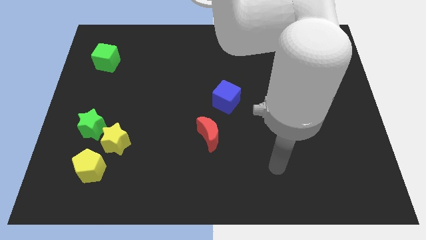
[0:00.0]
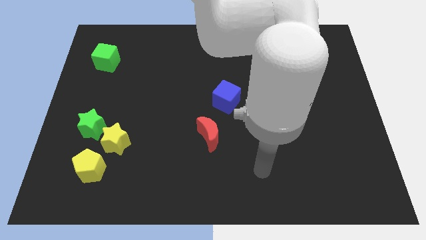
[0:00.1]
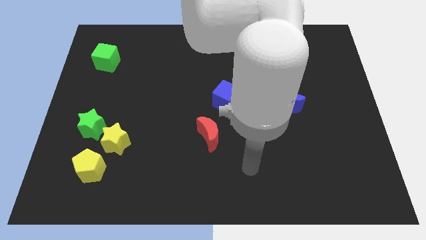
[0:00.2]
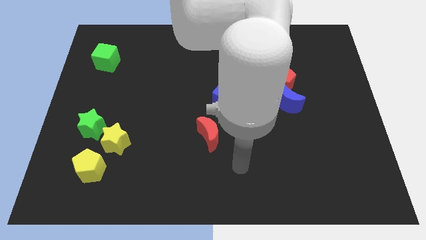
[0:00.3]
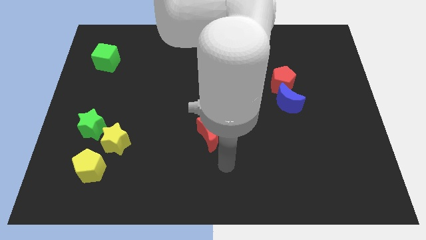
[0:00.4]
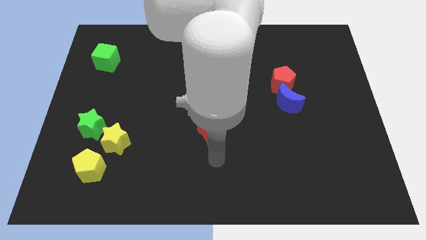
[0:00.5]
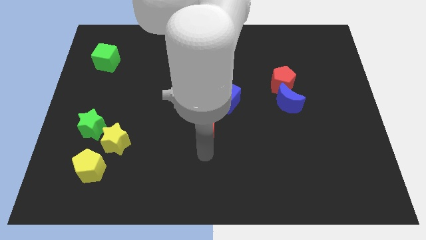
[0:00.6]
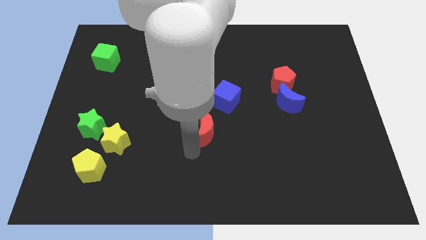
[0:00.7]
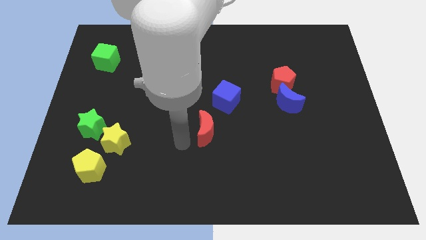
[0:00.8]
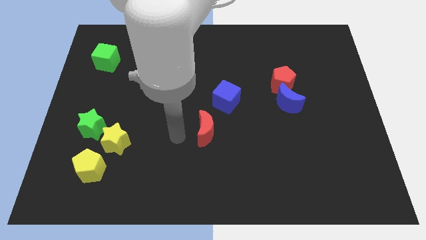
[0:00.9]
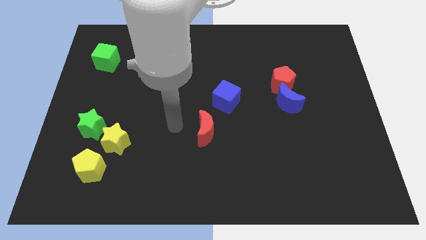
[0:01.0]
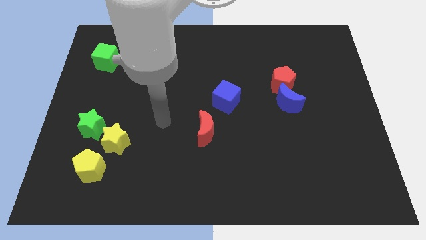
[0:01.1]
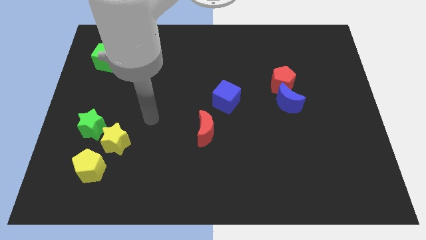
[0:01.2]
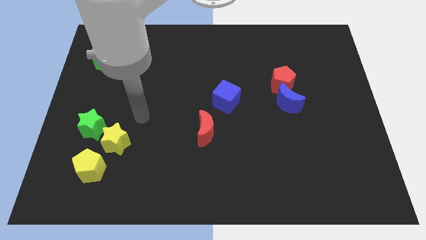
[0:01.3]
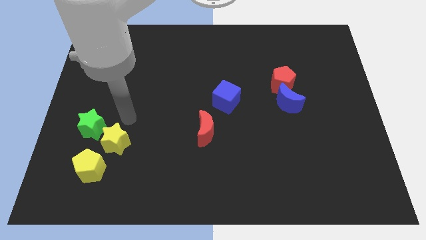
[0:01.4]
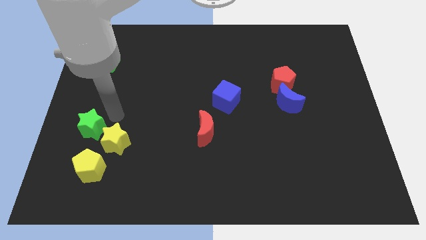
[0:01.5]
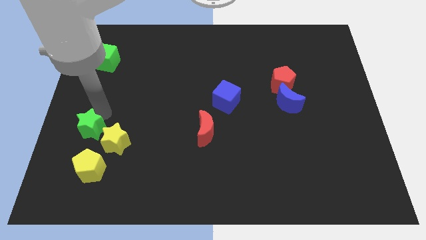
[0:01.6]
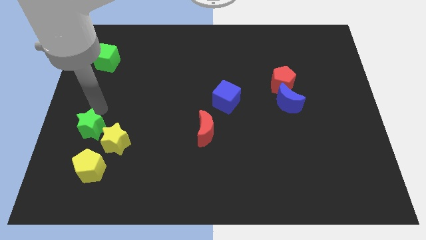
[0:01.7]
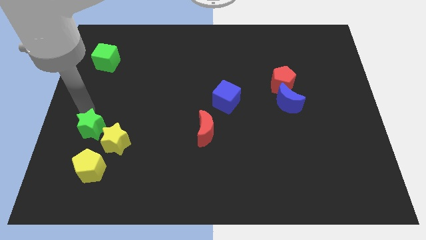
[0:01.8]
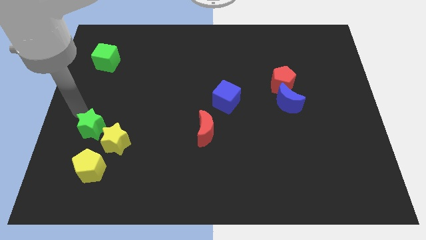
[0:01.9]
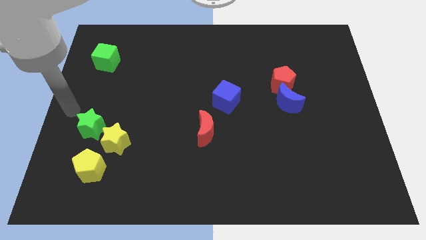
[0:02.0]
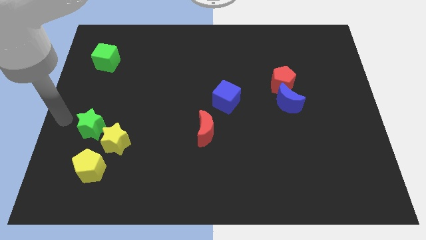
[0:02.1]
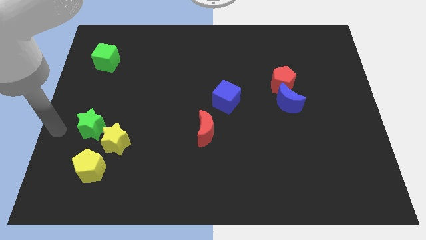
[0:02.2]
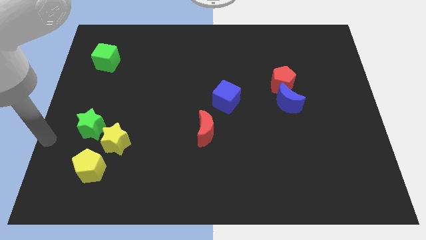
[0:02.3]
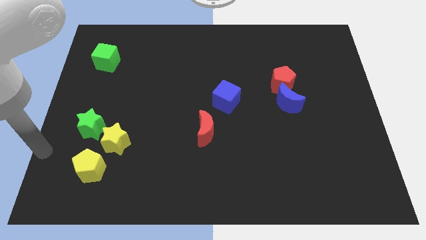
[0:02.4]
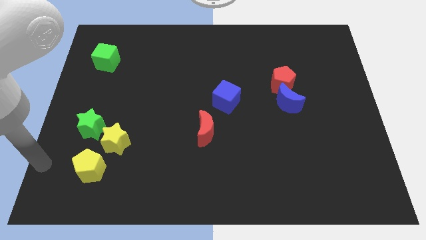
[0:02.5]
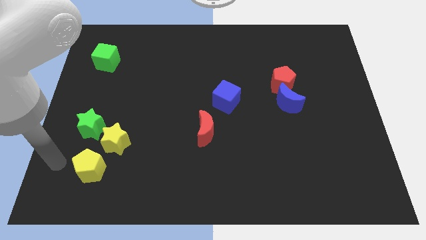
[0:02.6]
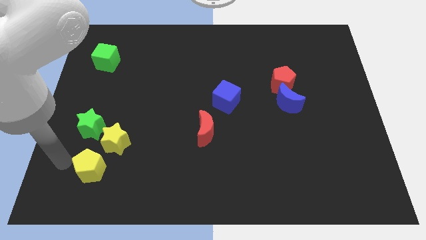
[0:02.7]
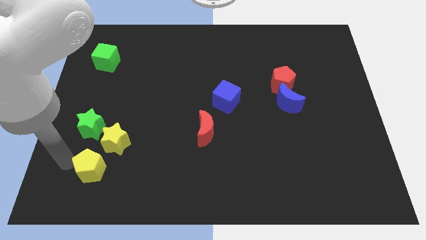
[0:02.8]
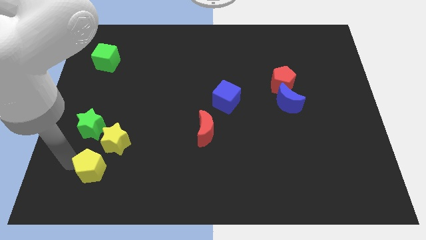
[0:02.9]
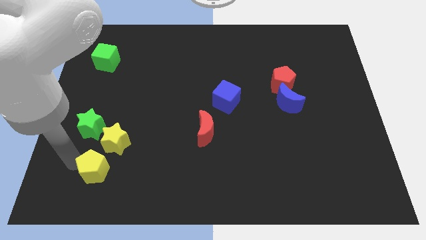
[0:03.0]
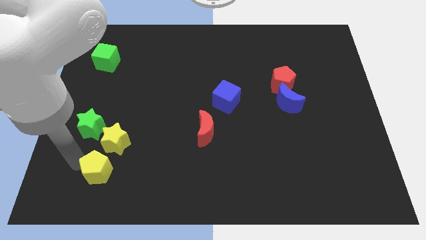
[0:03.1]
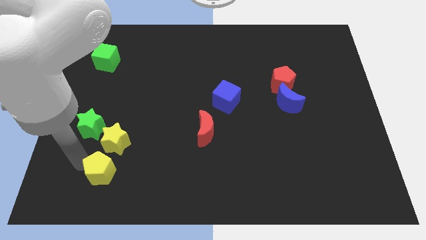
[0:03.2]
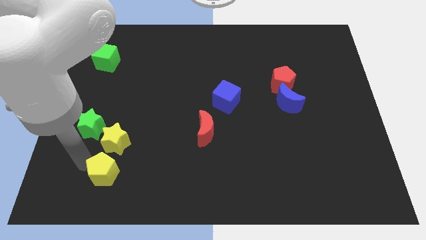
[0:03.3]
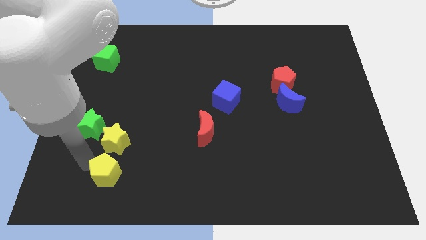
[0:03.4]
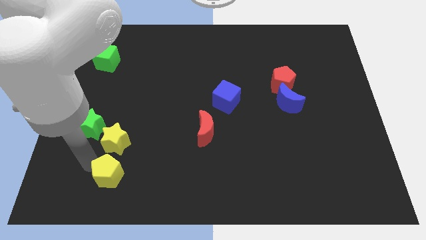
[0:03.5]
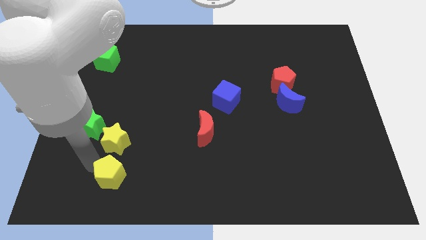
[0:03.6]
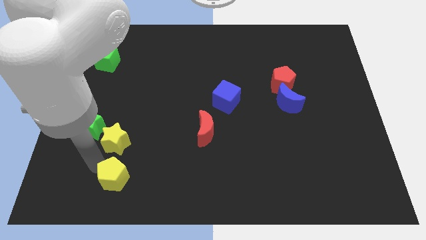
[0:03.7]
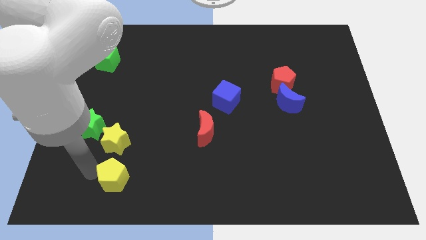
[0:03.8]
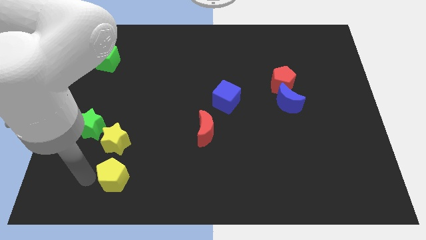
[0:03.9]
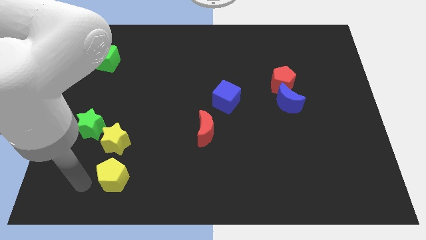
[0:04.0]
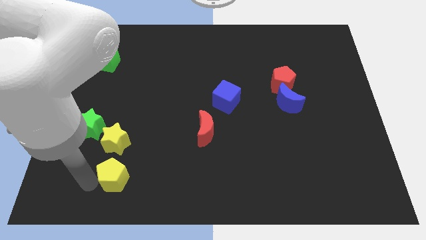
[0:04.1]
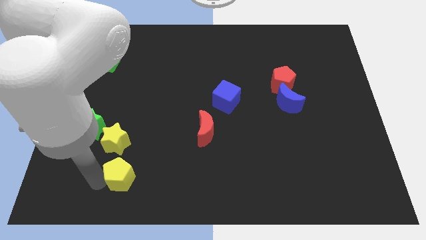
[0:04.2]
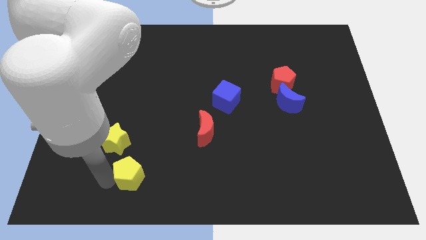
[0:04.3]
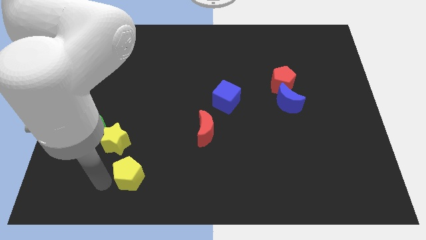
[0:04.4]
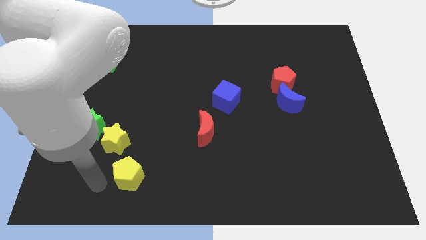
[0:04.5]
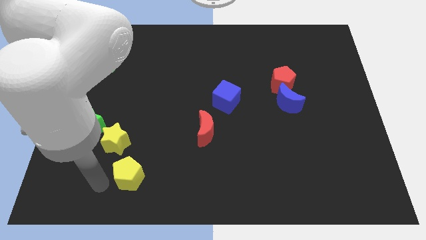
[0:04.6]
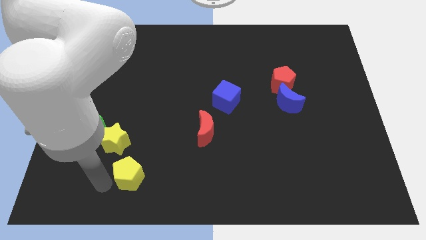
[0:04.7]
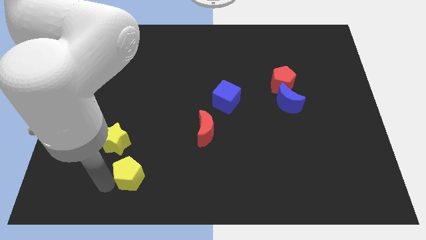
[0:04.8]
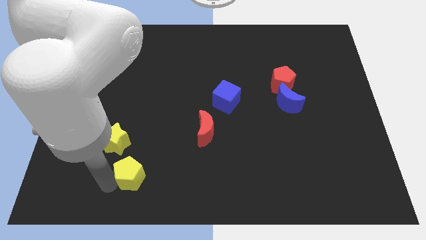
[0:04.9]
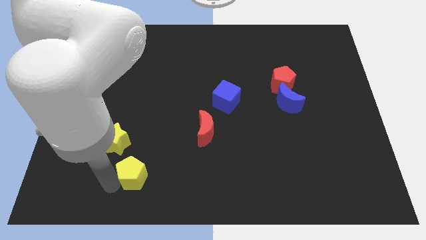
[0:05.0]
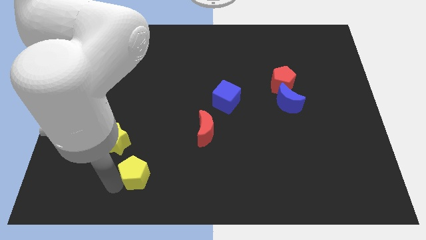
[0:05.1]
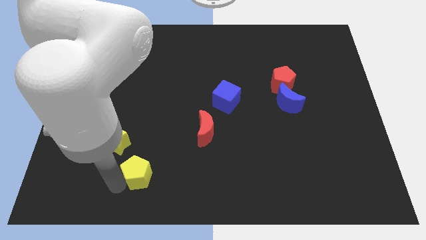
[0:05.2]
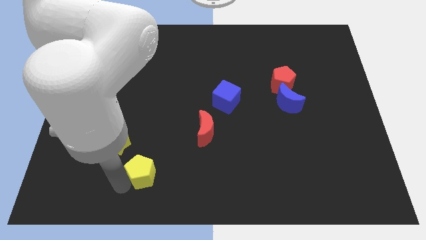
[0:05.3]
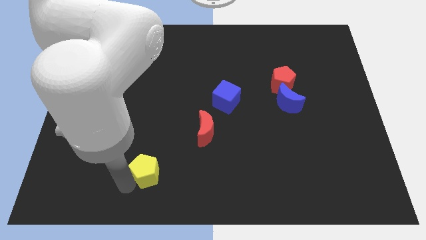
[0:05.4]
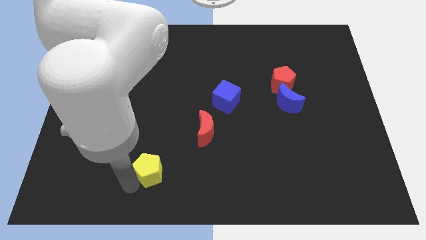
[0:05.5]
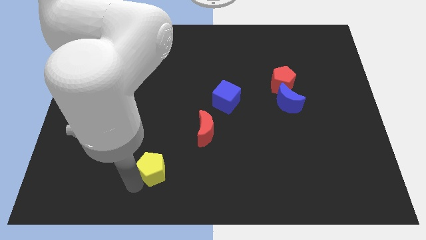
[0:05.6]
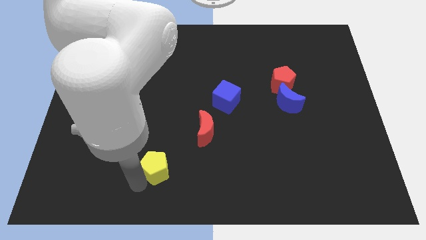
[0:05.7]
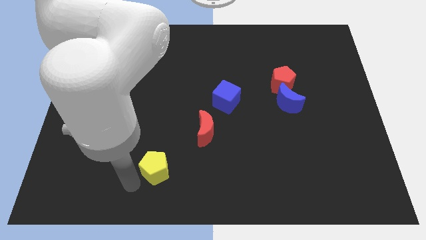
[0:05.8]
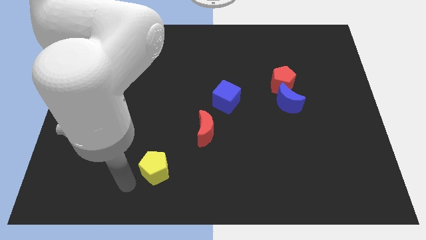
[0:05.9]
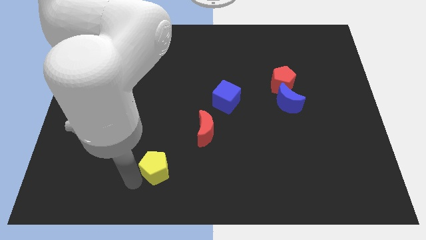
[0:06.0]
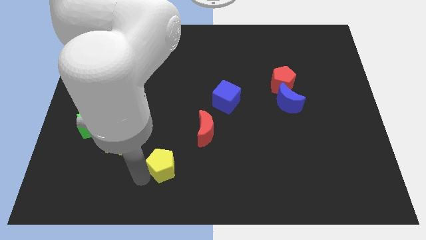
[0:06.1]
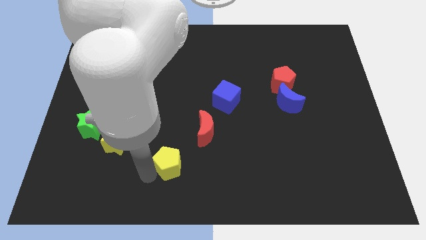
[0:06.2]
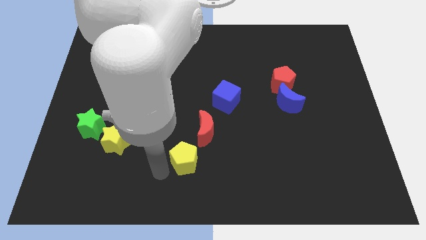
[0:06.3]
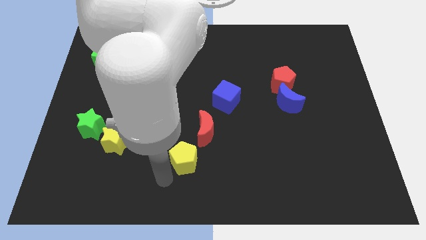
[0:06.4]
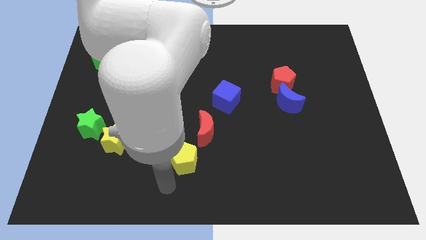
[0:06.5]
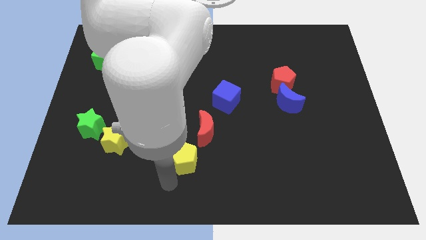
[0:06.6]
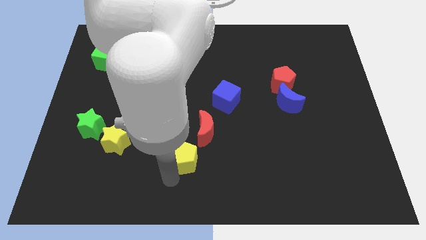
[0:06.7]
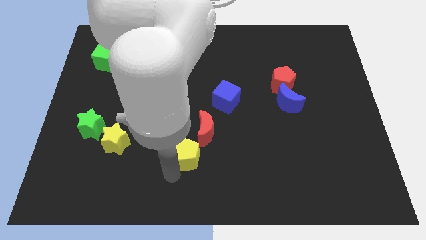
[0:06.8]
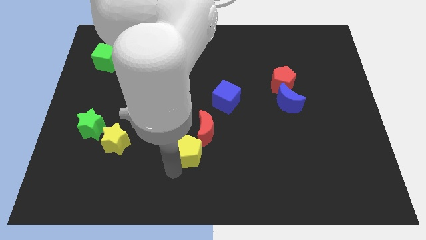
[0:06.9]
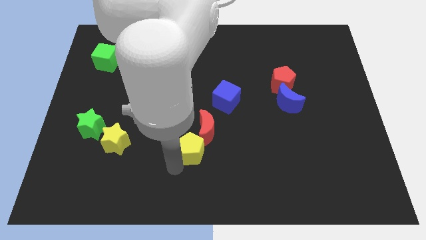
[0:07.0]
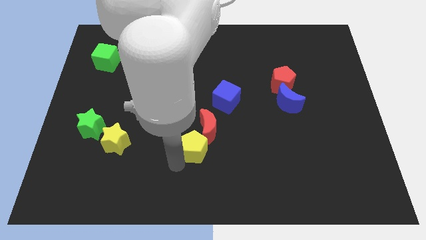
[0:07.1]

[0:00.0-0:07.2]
push the yellow pentagon to the red moon
